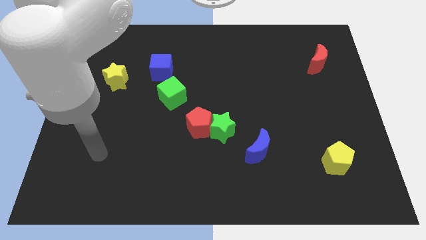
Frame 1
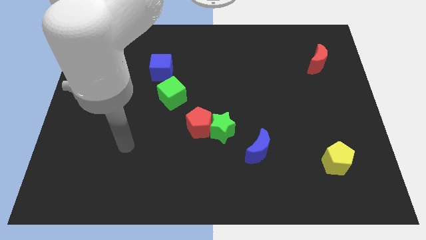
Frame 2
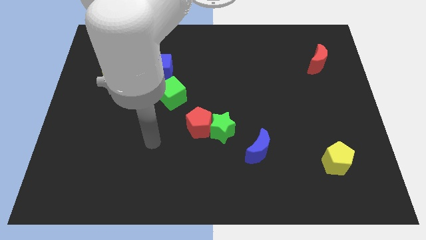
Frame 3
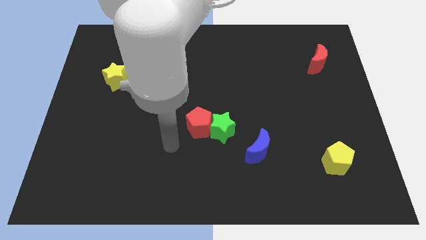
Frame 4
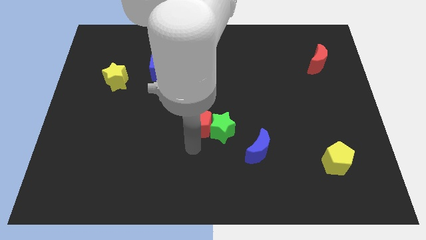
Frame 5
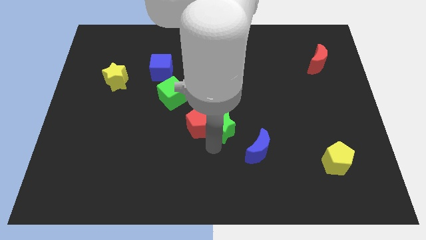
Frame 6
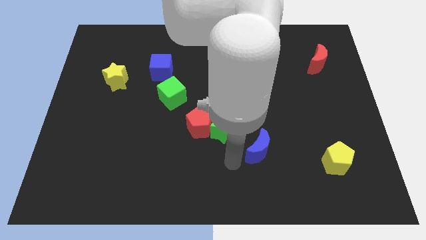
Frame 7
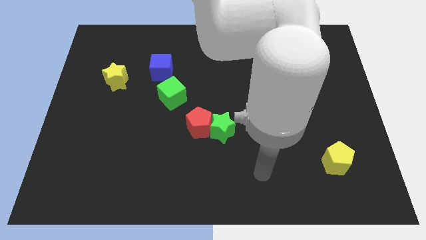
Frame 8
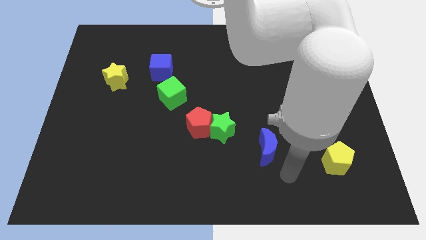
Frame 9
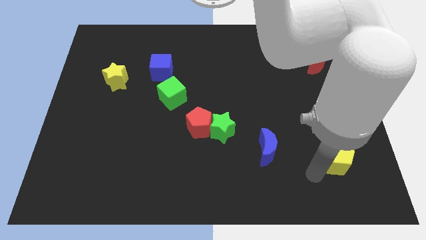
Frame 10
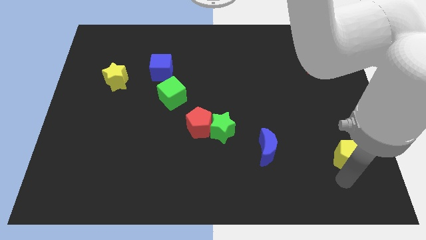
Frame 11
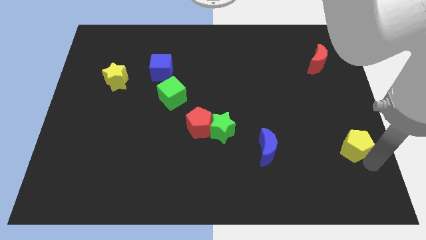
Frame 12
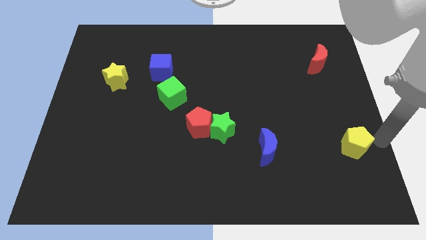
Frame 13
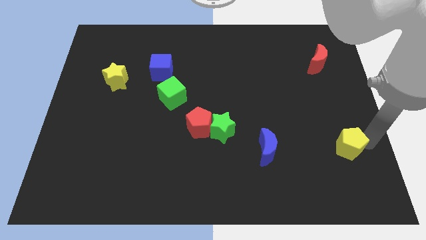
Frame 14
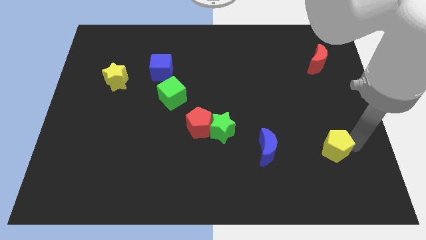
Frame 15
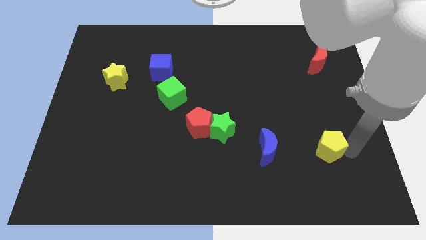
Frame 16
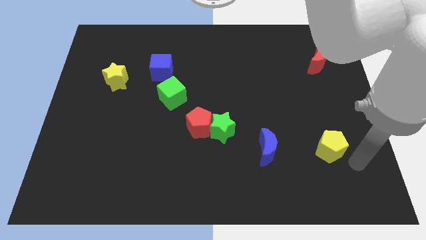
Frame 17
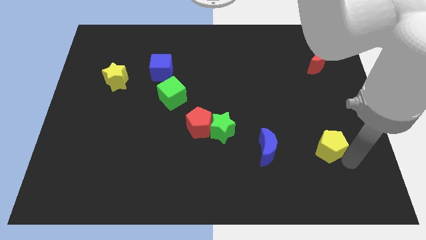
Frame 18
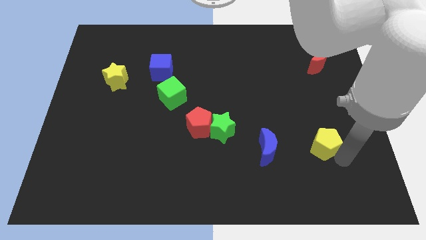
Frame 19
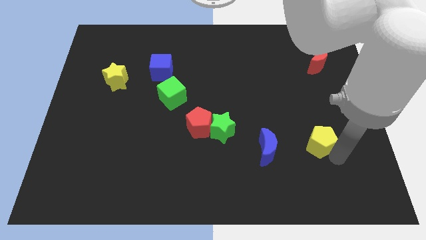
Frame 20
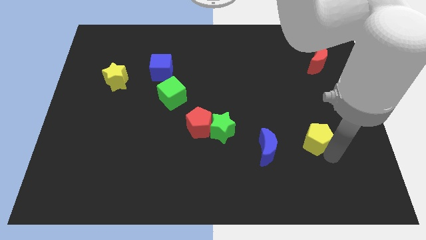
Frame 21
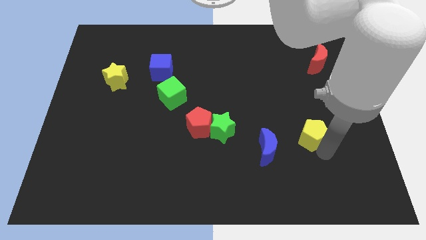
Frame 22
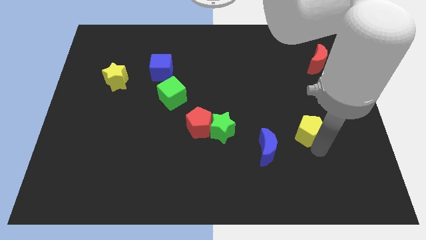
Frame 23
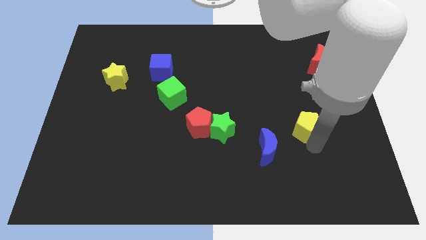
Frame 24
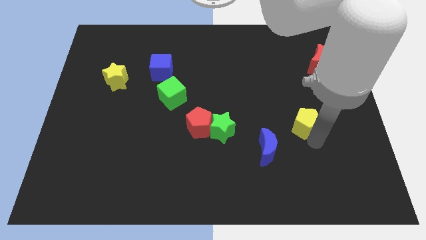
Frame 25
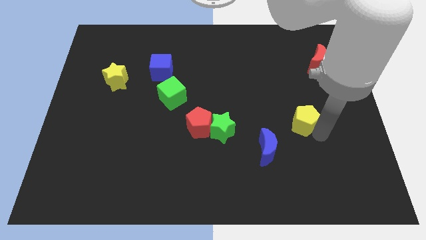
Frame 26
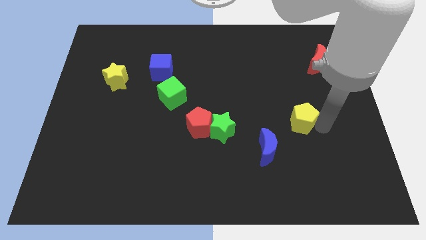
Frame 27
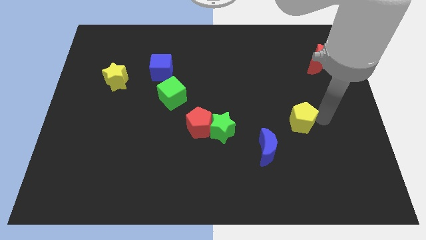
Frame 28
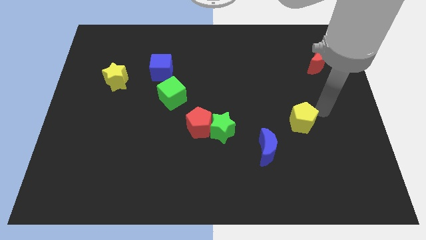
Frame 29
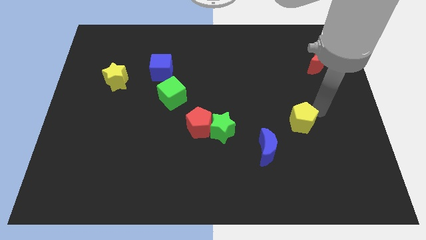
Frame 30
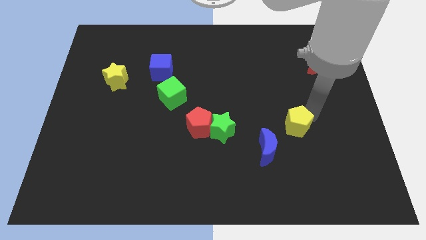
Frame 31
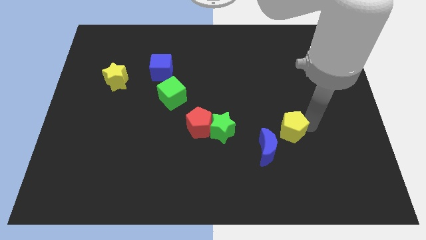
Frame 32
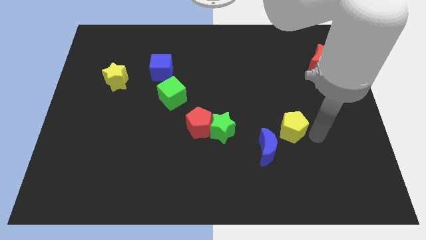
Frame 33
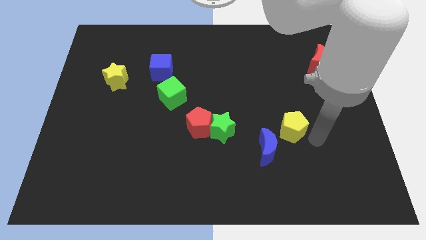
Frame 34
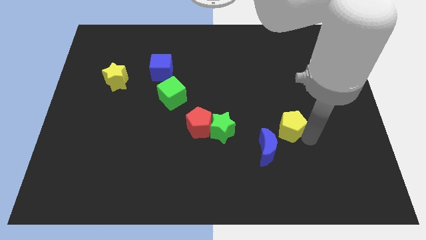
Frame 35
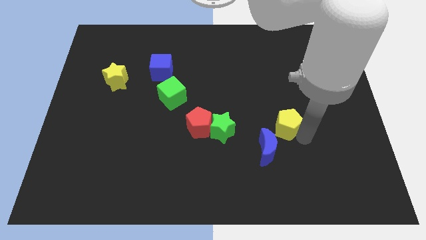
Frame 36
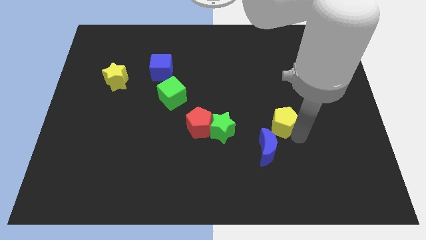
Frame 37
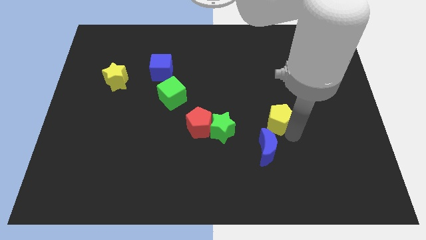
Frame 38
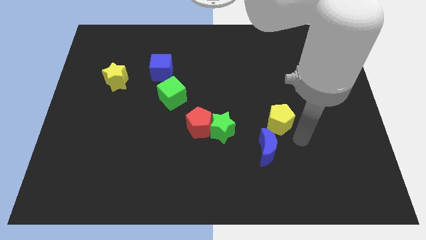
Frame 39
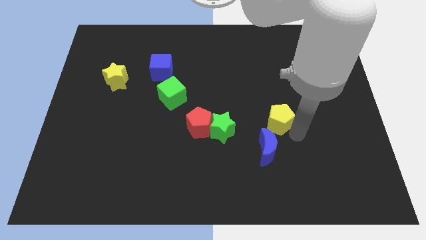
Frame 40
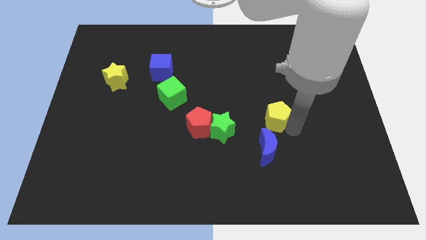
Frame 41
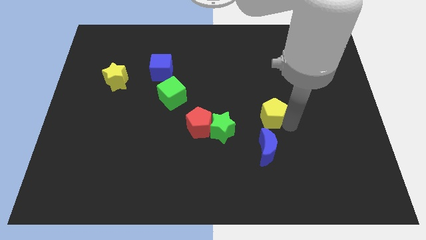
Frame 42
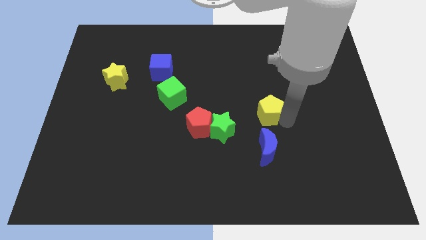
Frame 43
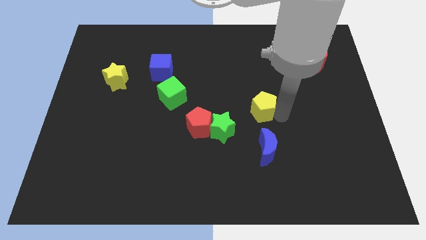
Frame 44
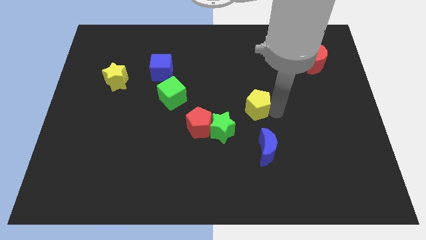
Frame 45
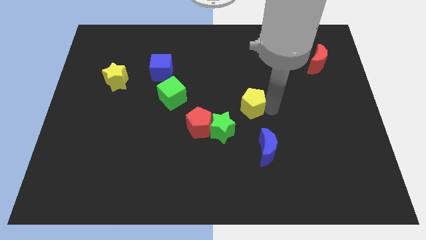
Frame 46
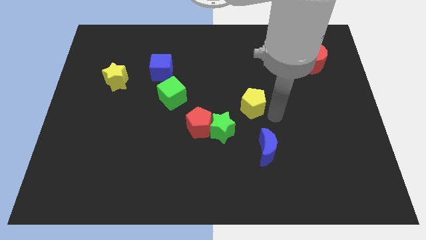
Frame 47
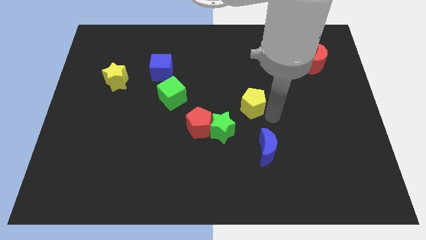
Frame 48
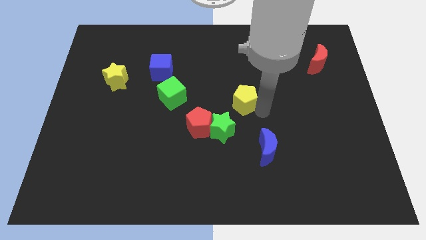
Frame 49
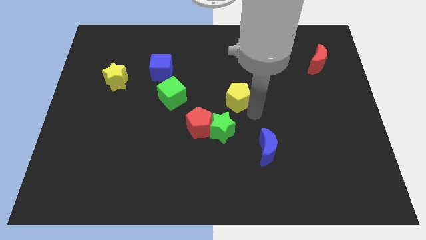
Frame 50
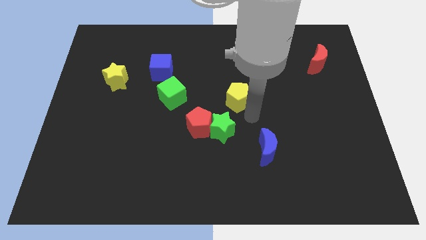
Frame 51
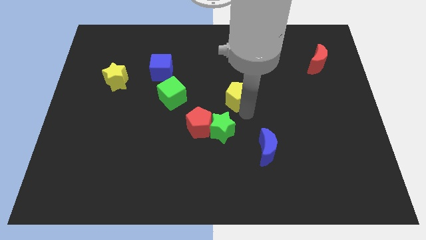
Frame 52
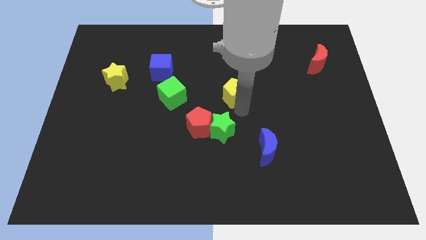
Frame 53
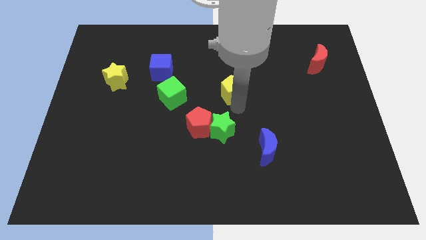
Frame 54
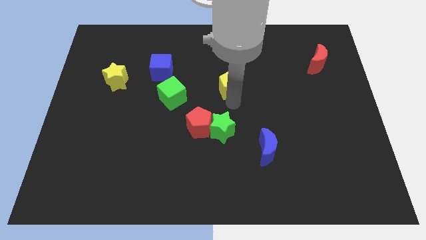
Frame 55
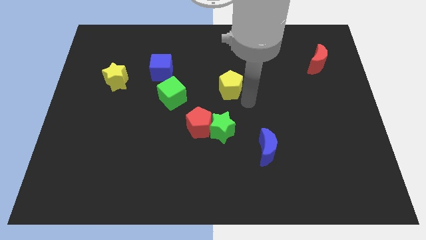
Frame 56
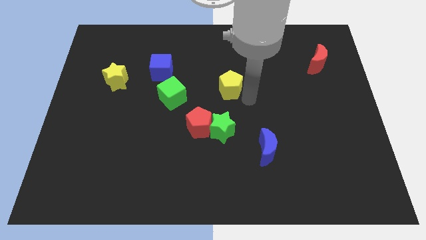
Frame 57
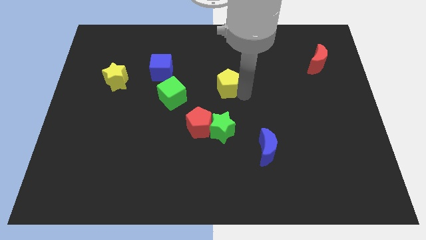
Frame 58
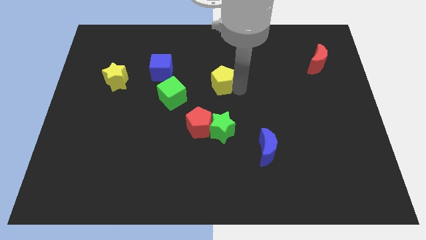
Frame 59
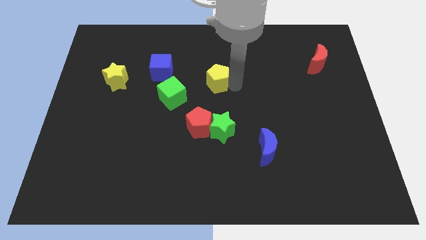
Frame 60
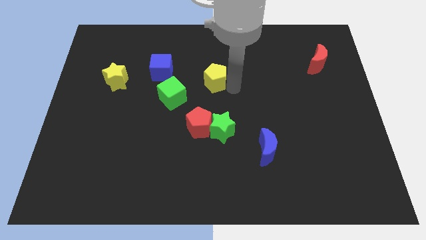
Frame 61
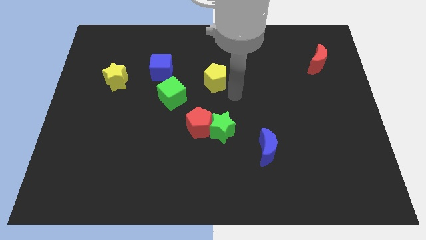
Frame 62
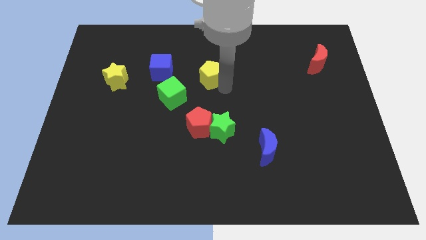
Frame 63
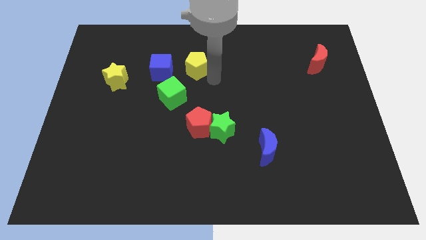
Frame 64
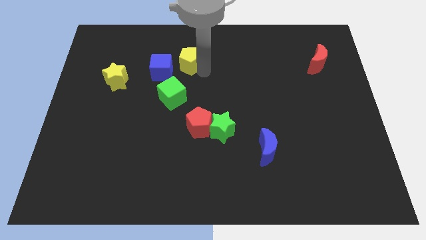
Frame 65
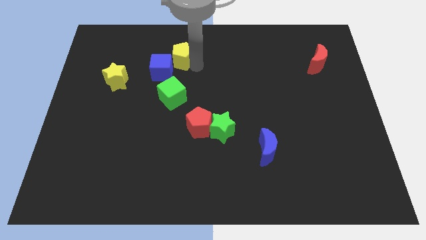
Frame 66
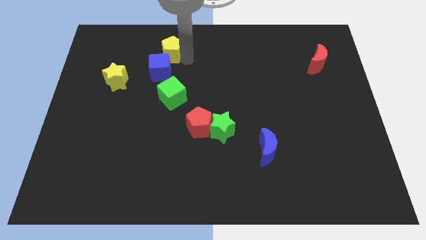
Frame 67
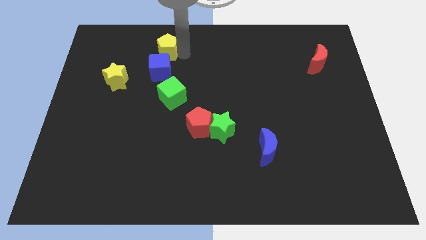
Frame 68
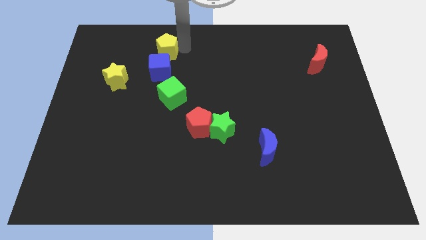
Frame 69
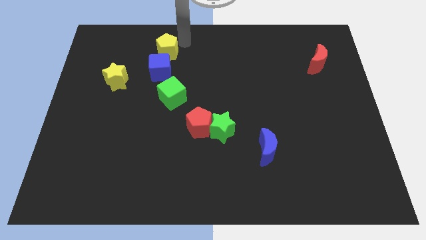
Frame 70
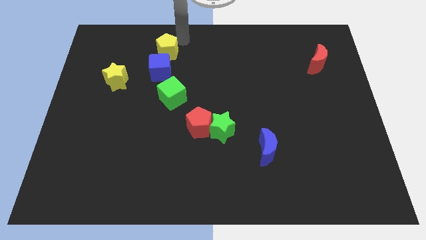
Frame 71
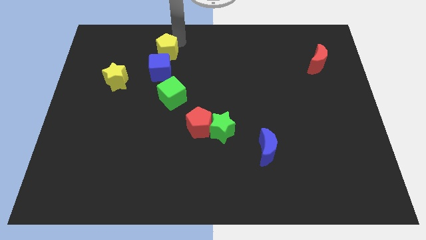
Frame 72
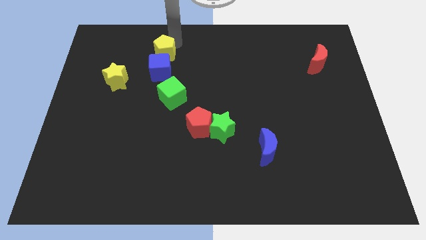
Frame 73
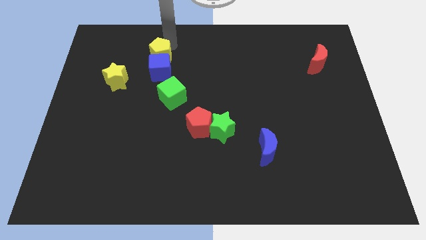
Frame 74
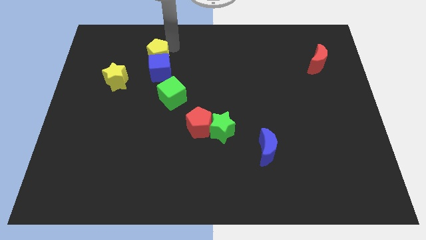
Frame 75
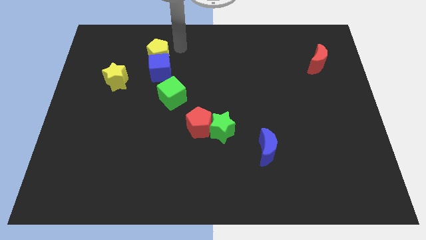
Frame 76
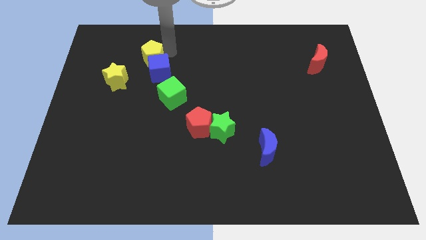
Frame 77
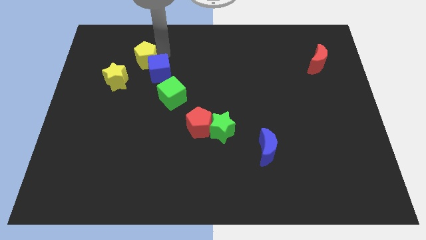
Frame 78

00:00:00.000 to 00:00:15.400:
push the yellow pentagon left of the blue cube

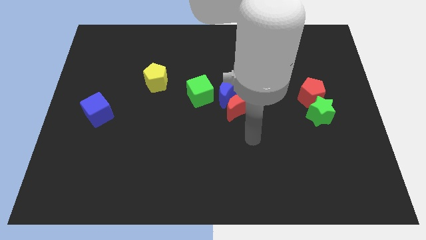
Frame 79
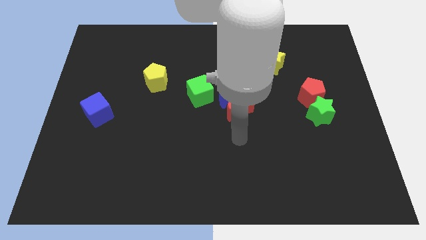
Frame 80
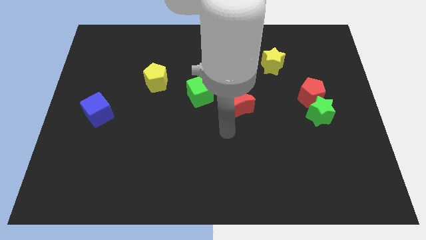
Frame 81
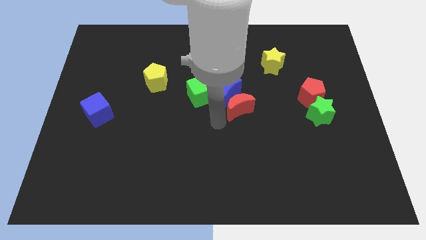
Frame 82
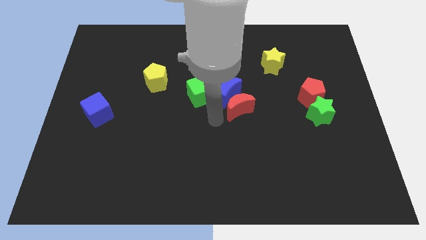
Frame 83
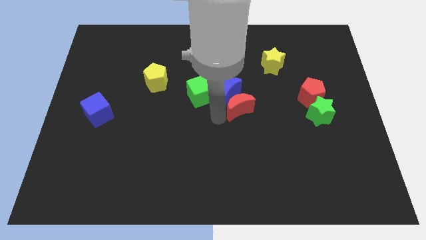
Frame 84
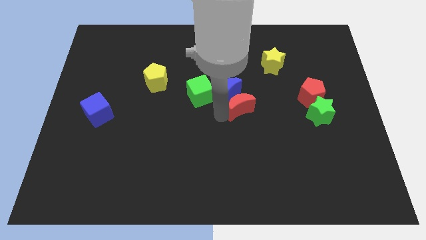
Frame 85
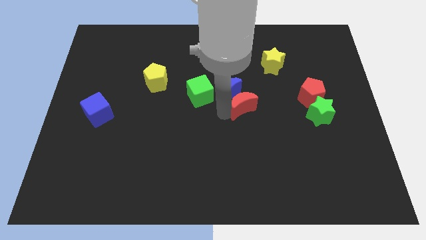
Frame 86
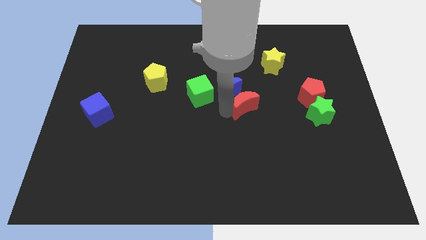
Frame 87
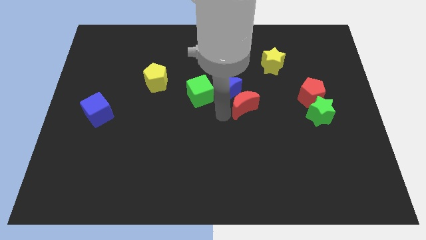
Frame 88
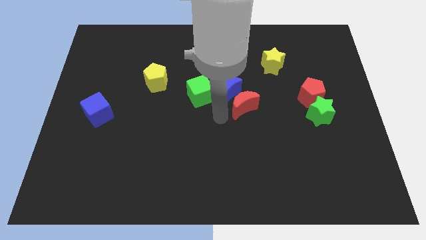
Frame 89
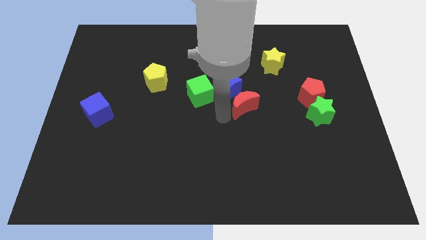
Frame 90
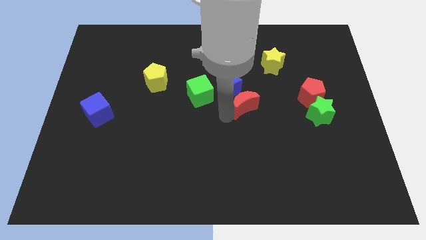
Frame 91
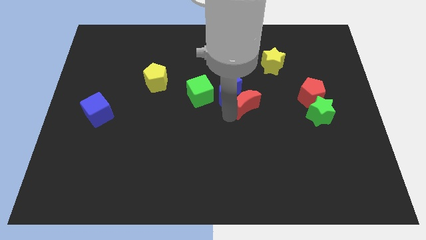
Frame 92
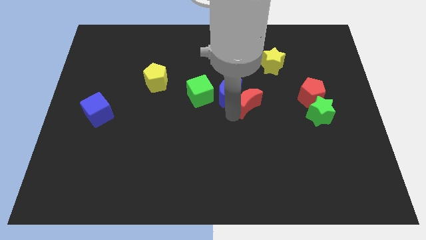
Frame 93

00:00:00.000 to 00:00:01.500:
push the red moon just left of the red pentagon
